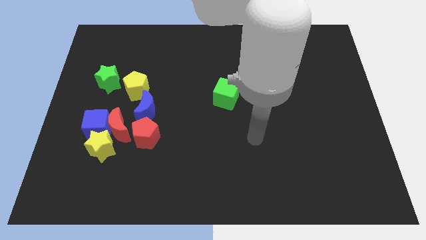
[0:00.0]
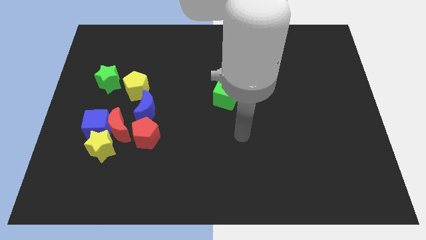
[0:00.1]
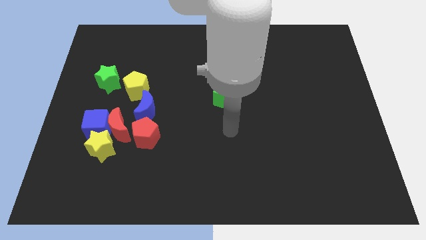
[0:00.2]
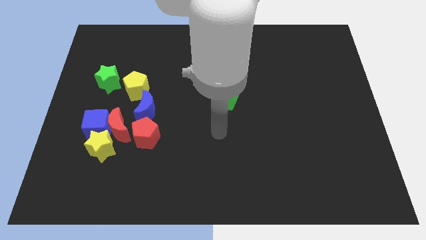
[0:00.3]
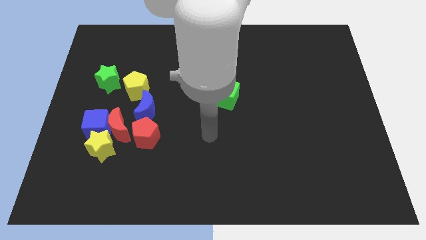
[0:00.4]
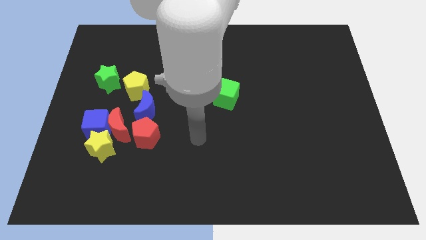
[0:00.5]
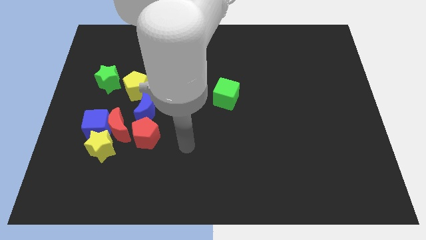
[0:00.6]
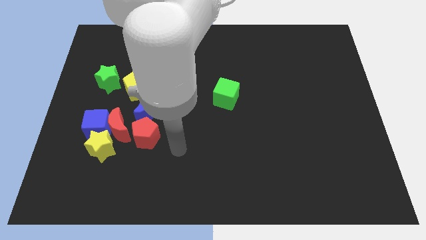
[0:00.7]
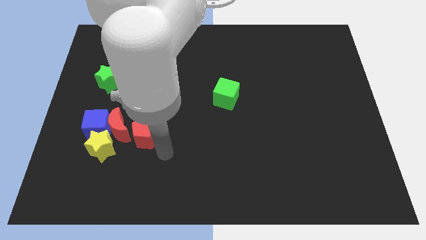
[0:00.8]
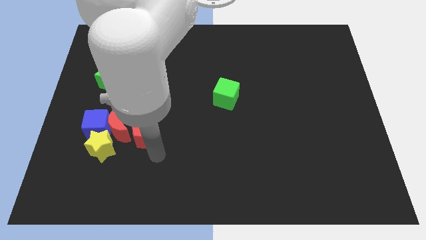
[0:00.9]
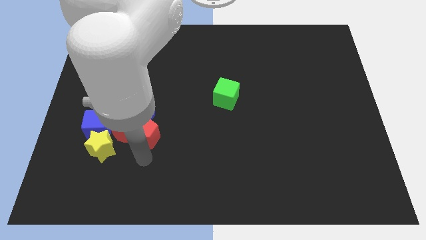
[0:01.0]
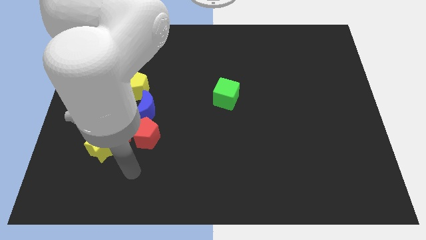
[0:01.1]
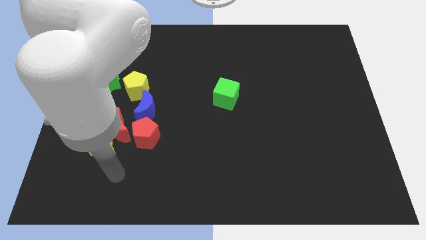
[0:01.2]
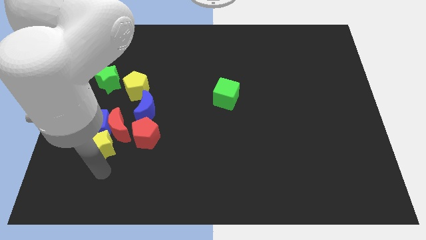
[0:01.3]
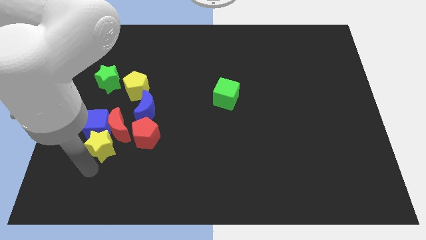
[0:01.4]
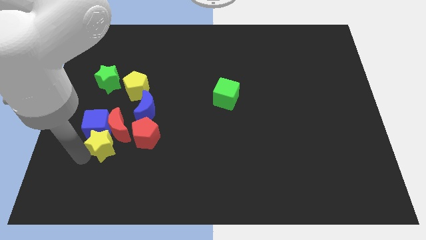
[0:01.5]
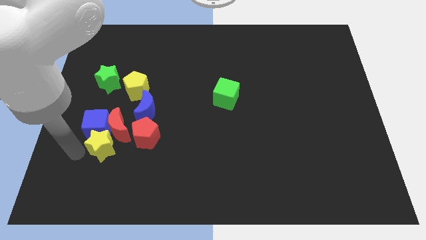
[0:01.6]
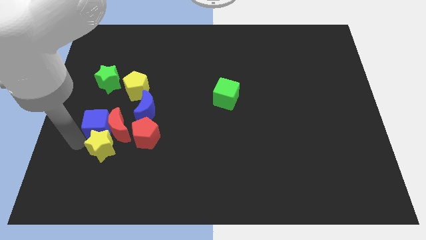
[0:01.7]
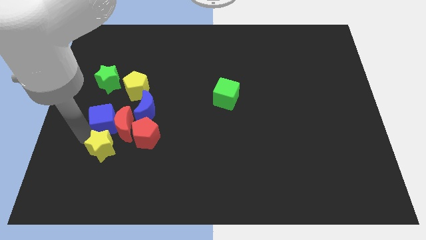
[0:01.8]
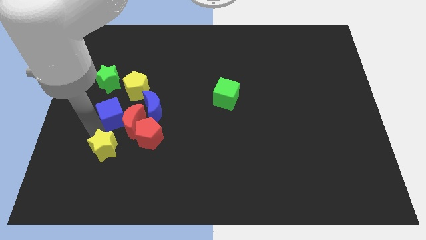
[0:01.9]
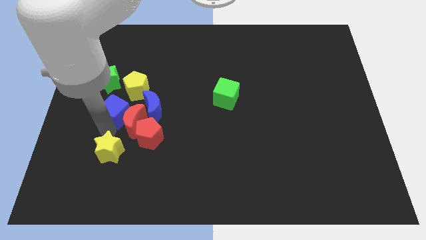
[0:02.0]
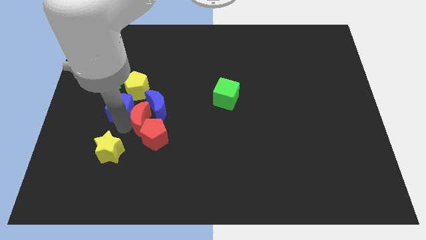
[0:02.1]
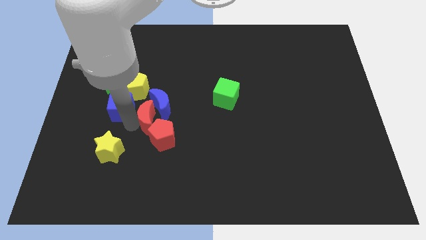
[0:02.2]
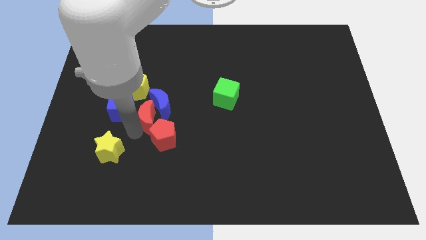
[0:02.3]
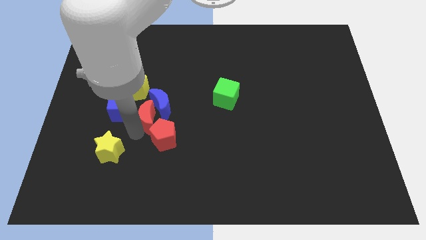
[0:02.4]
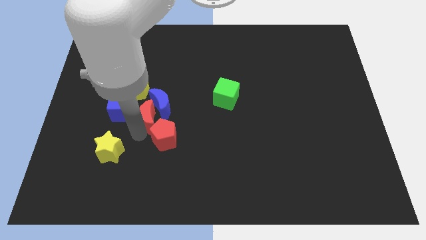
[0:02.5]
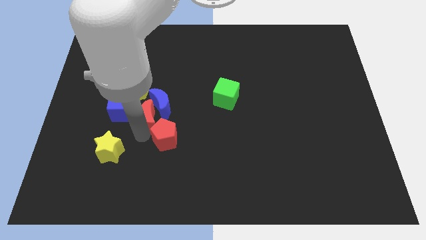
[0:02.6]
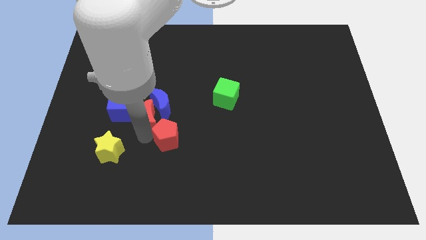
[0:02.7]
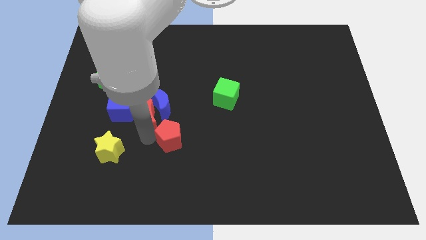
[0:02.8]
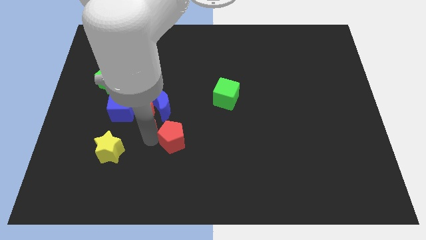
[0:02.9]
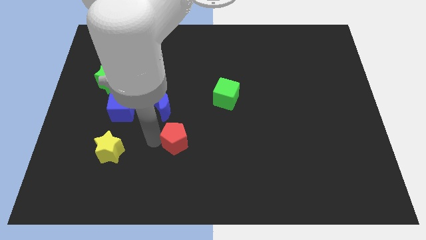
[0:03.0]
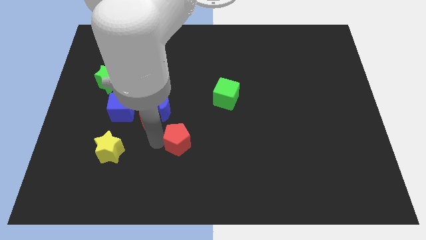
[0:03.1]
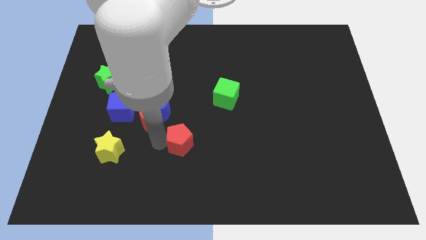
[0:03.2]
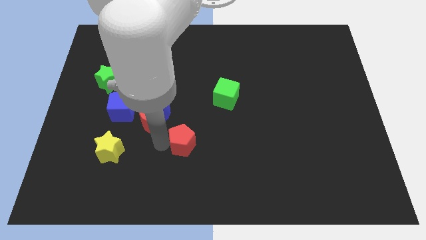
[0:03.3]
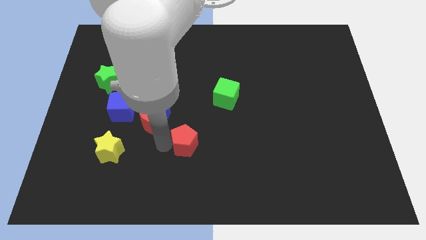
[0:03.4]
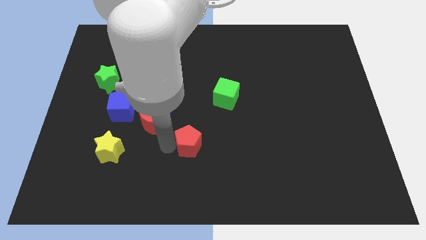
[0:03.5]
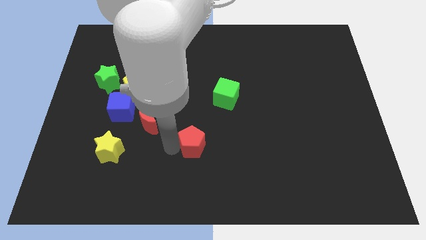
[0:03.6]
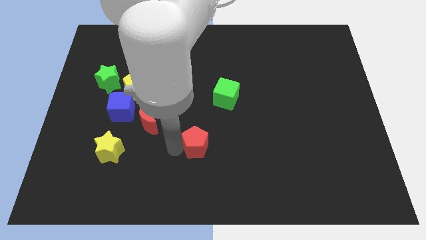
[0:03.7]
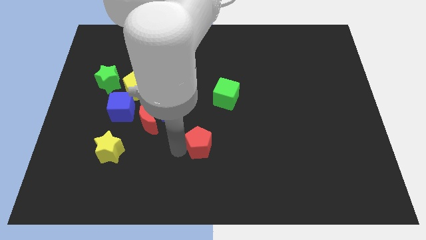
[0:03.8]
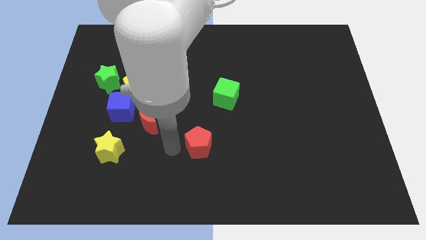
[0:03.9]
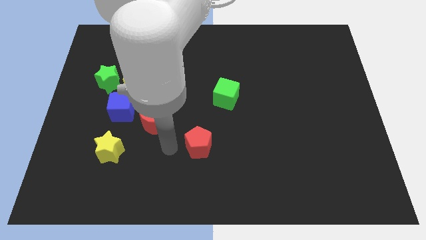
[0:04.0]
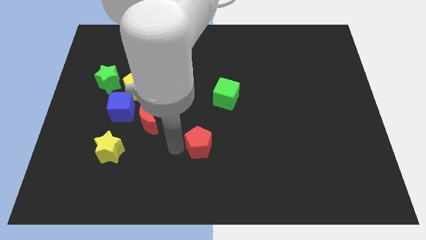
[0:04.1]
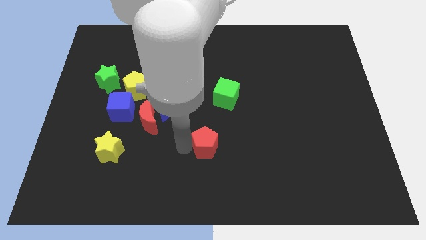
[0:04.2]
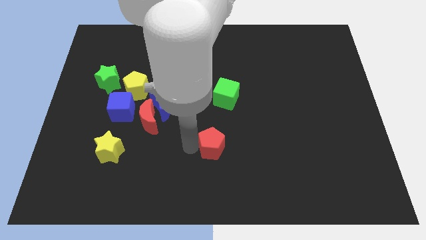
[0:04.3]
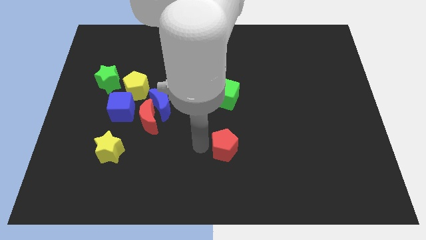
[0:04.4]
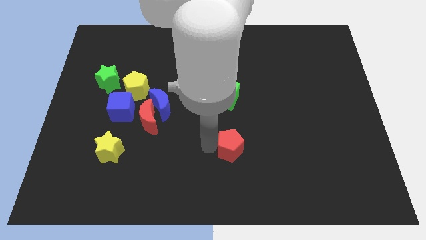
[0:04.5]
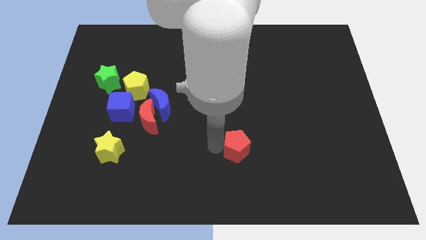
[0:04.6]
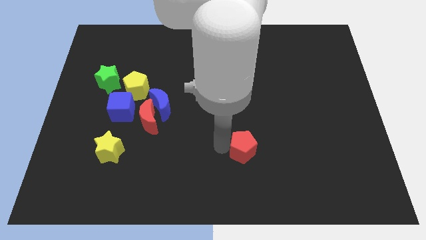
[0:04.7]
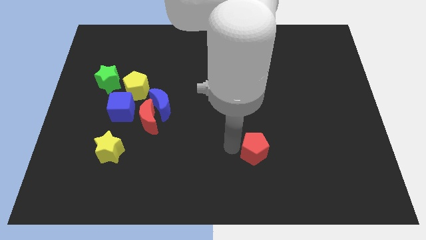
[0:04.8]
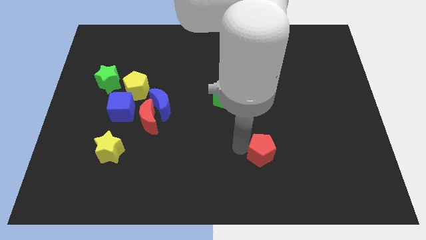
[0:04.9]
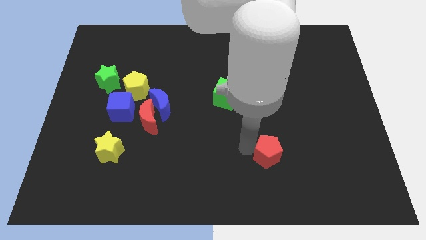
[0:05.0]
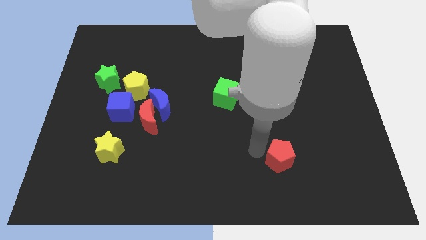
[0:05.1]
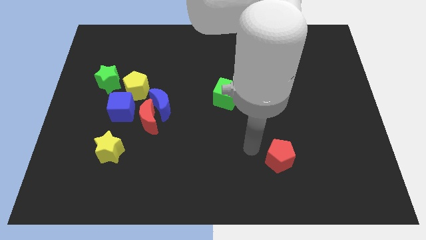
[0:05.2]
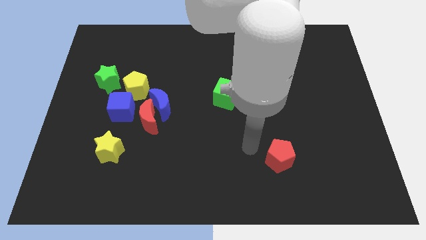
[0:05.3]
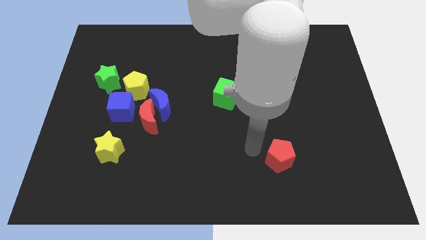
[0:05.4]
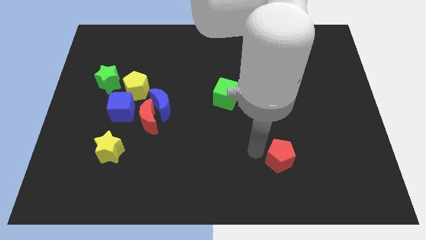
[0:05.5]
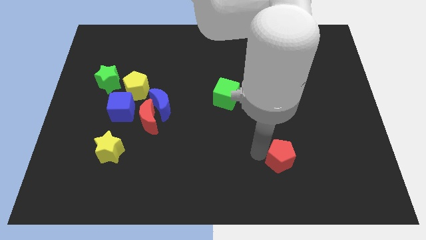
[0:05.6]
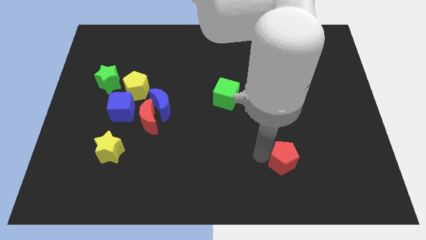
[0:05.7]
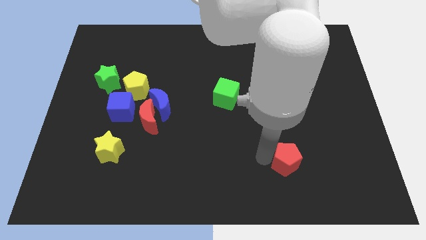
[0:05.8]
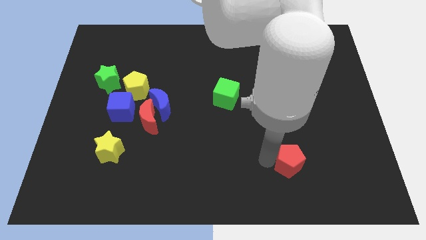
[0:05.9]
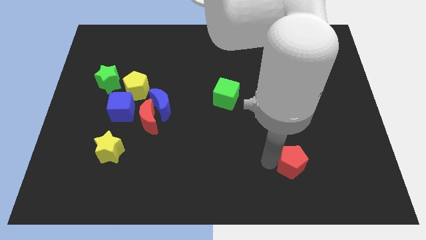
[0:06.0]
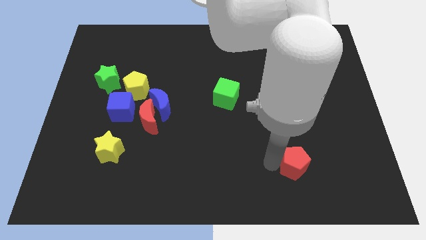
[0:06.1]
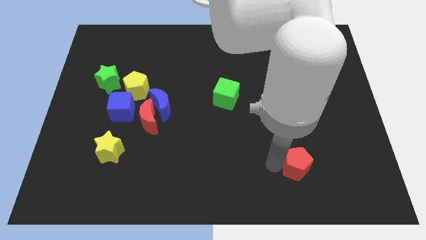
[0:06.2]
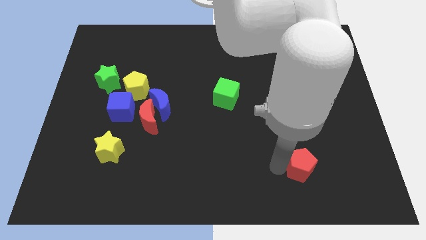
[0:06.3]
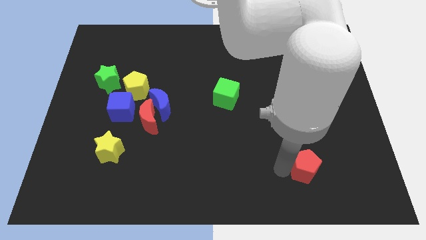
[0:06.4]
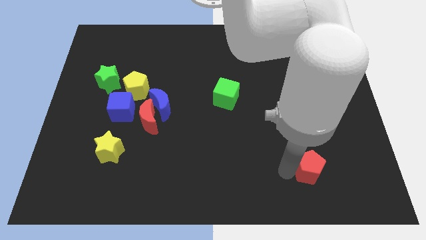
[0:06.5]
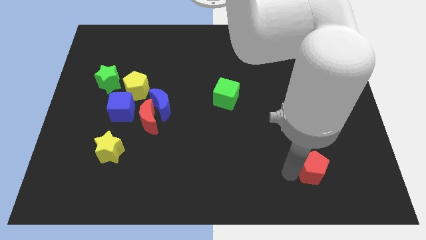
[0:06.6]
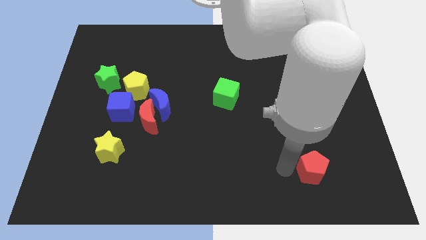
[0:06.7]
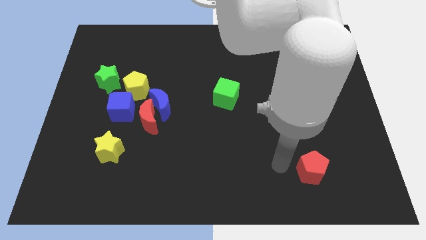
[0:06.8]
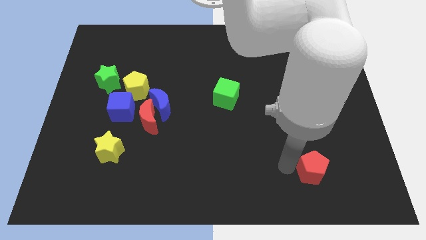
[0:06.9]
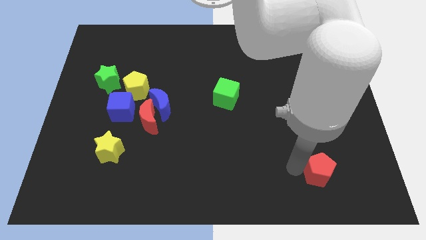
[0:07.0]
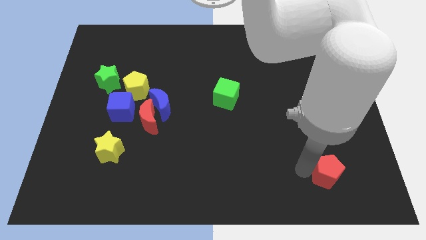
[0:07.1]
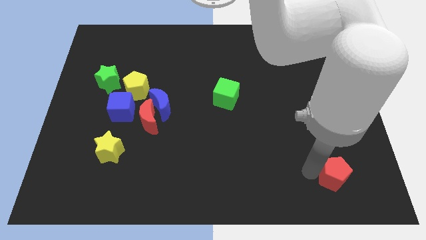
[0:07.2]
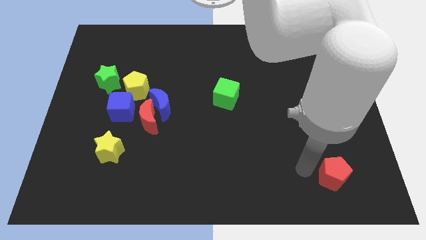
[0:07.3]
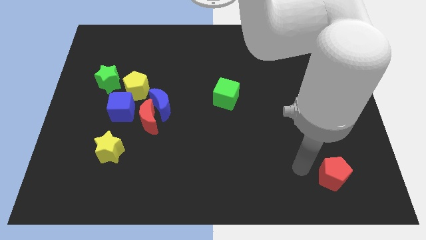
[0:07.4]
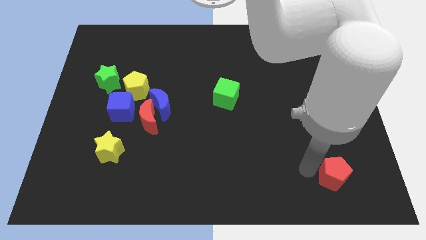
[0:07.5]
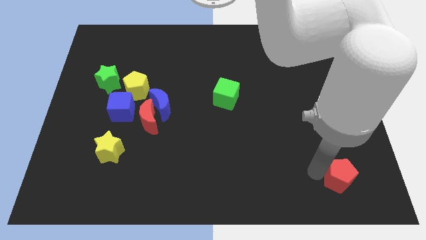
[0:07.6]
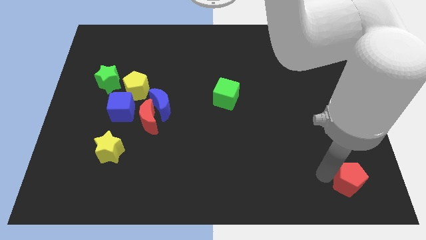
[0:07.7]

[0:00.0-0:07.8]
slide the red pentagon to the bottom right corner
